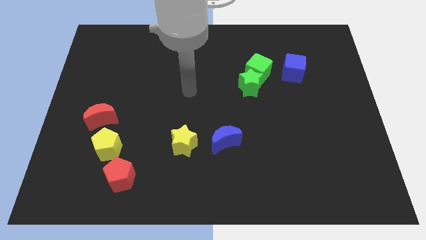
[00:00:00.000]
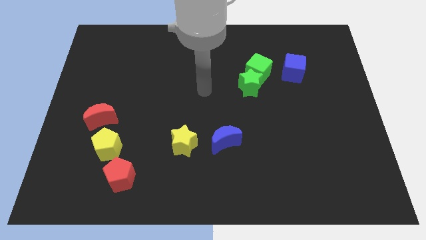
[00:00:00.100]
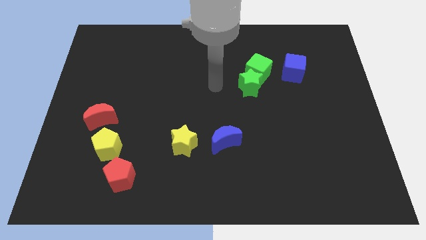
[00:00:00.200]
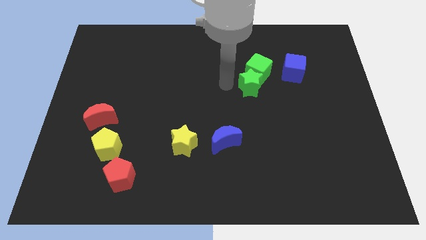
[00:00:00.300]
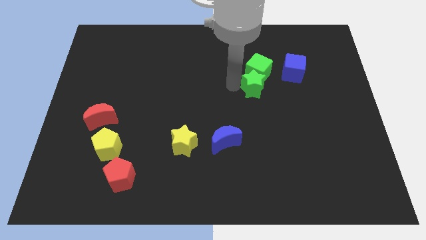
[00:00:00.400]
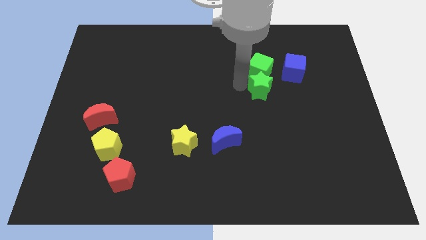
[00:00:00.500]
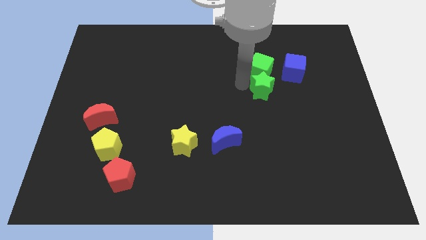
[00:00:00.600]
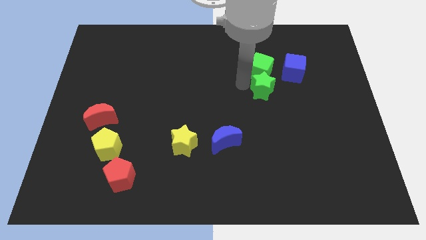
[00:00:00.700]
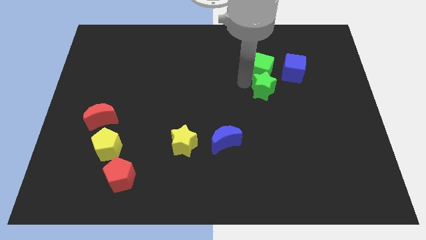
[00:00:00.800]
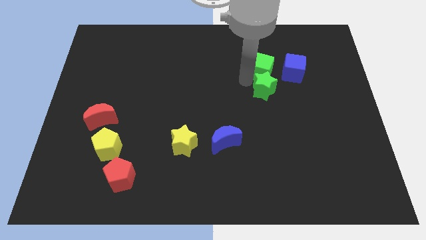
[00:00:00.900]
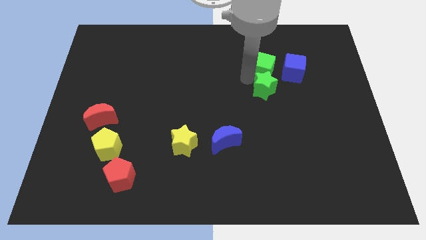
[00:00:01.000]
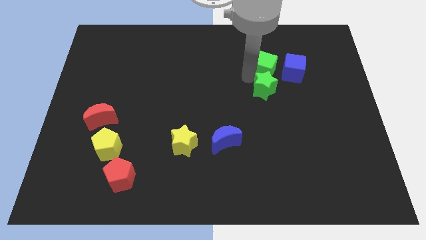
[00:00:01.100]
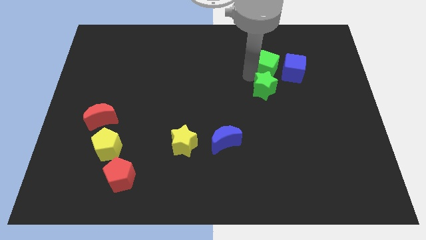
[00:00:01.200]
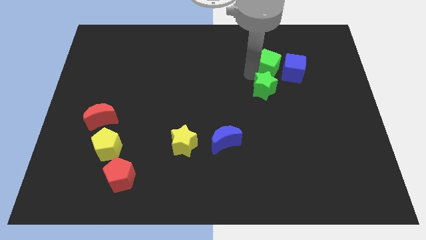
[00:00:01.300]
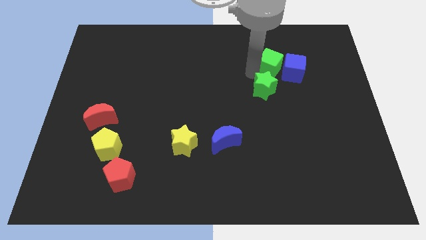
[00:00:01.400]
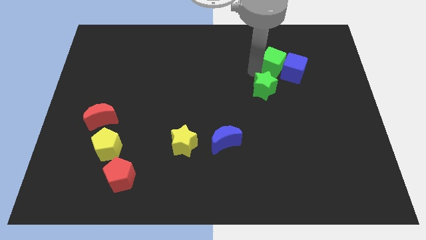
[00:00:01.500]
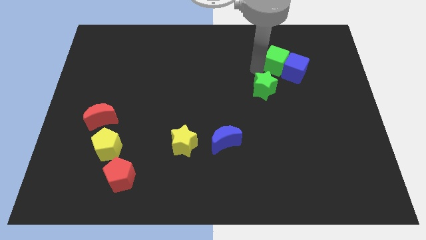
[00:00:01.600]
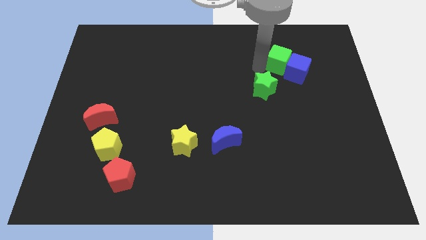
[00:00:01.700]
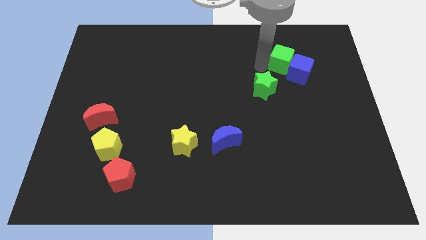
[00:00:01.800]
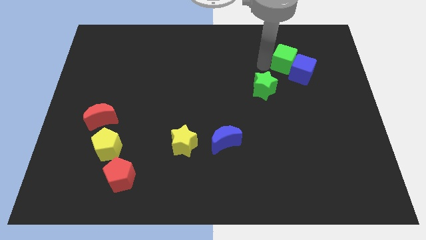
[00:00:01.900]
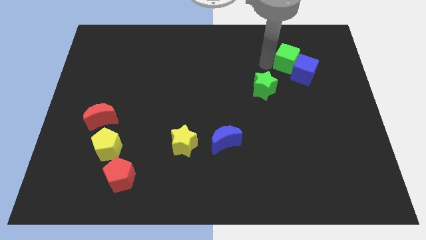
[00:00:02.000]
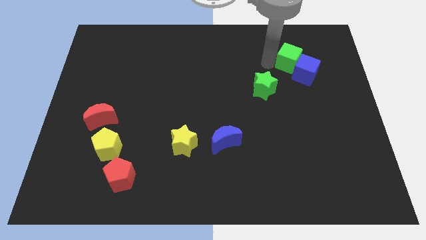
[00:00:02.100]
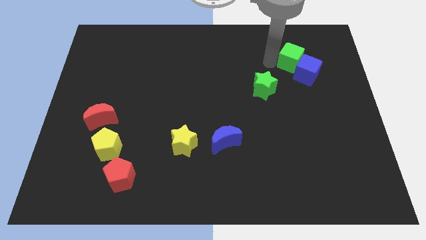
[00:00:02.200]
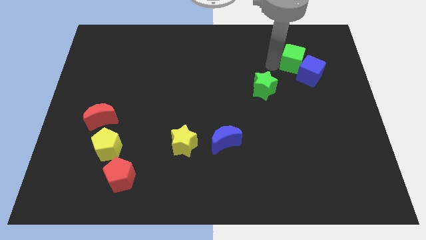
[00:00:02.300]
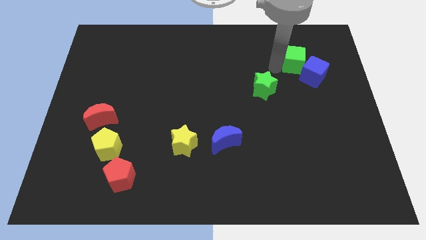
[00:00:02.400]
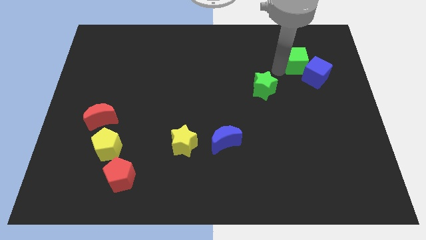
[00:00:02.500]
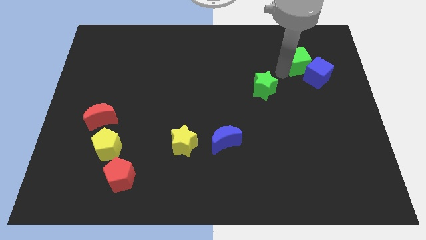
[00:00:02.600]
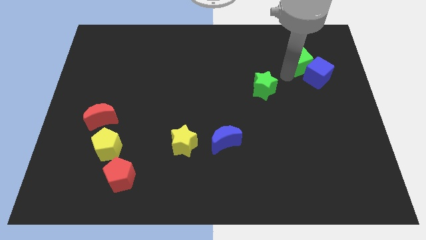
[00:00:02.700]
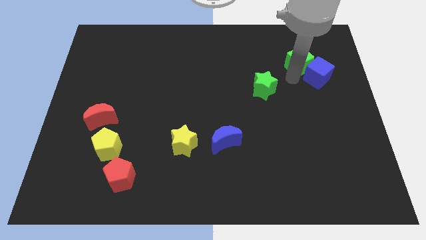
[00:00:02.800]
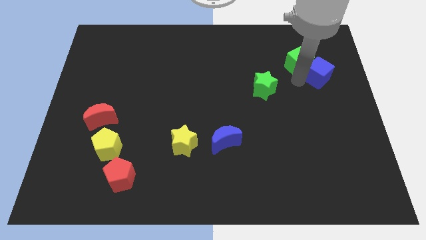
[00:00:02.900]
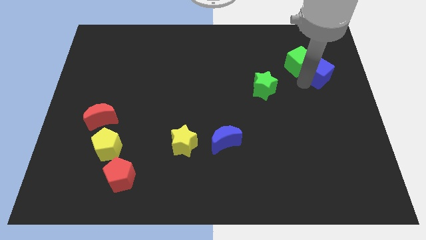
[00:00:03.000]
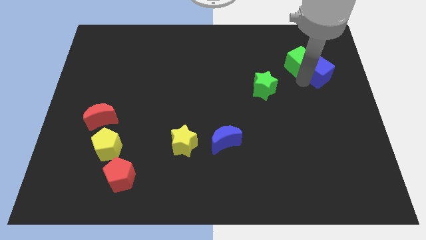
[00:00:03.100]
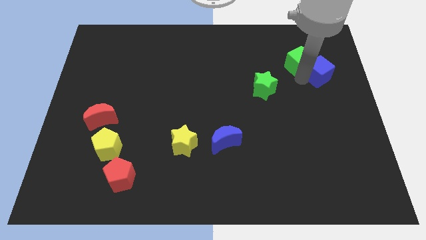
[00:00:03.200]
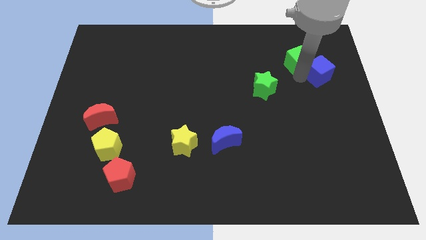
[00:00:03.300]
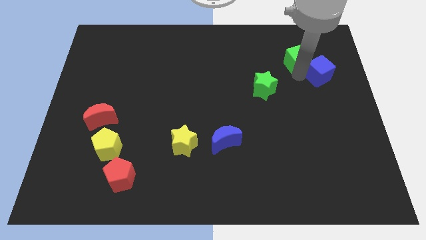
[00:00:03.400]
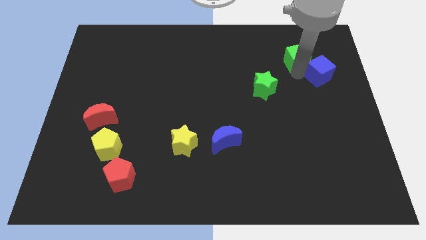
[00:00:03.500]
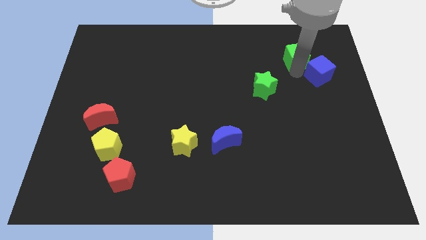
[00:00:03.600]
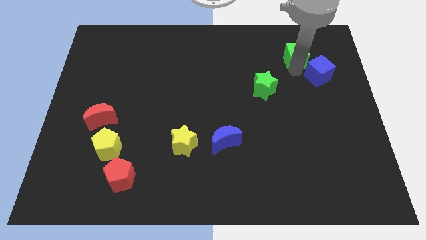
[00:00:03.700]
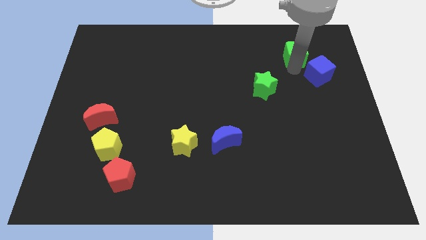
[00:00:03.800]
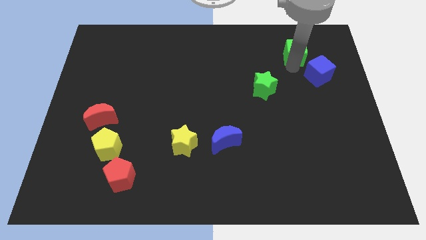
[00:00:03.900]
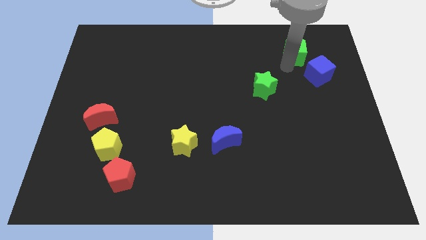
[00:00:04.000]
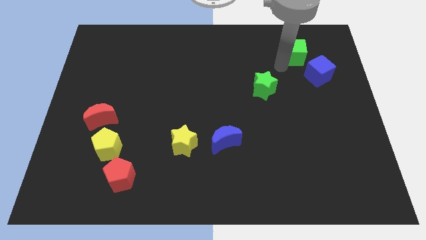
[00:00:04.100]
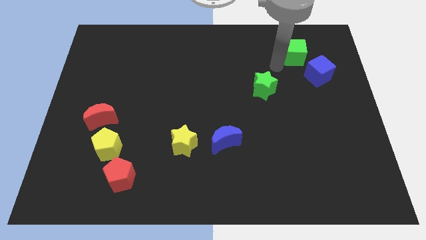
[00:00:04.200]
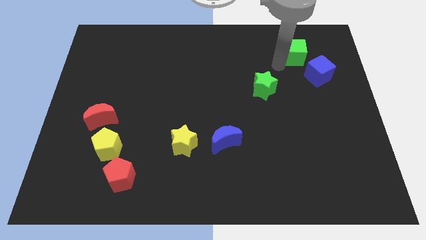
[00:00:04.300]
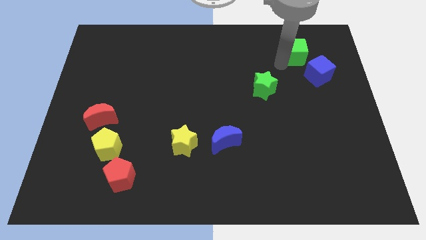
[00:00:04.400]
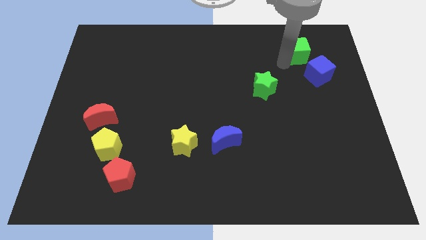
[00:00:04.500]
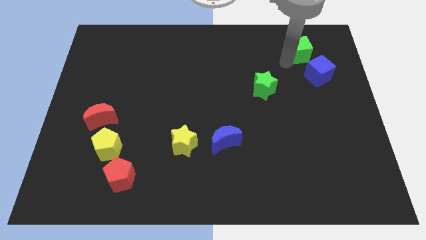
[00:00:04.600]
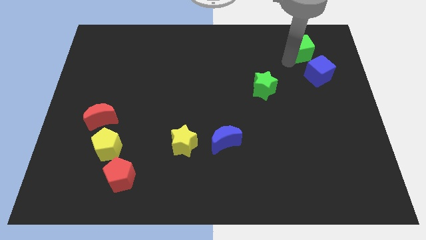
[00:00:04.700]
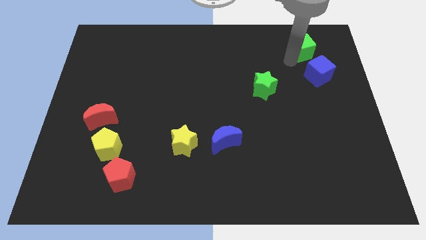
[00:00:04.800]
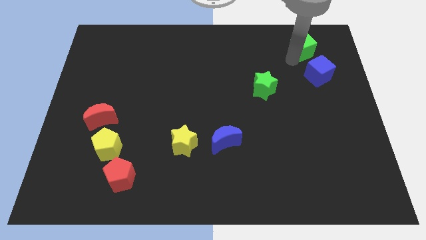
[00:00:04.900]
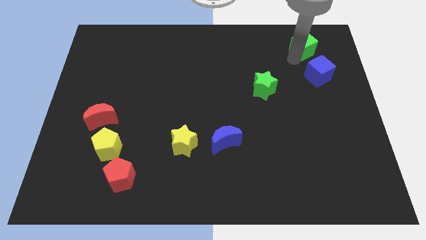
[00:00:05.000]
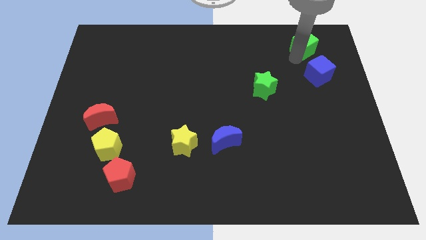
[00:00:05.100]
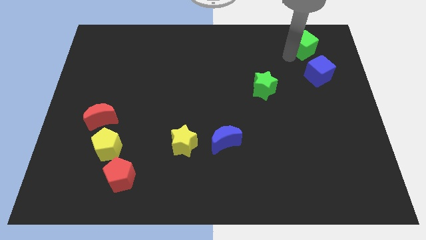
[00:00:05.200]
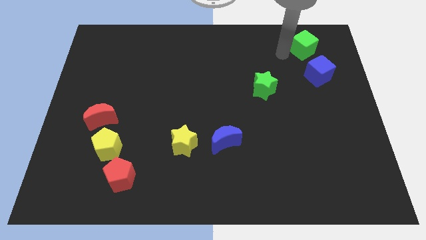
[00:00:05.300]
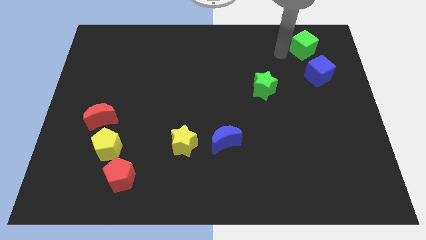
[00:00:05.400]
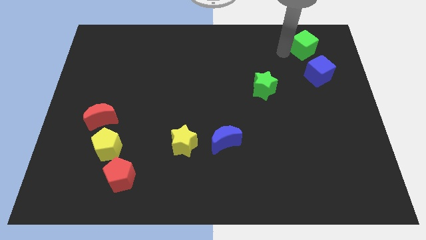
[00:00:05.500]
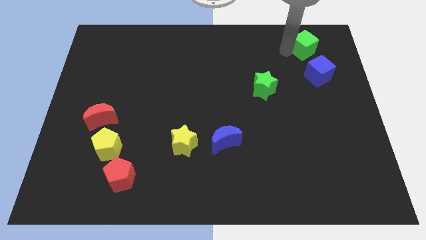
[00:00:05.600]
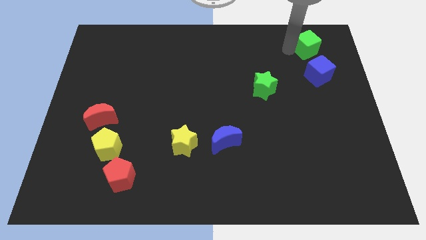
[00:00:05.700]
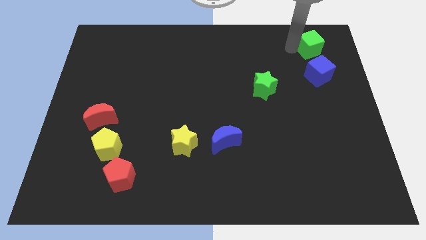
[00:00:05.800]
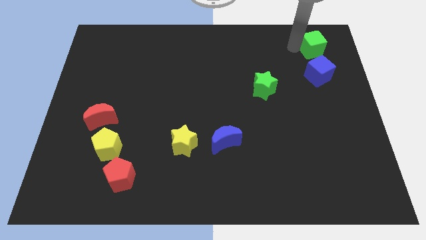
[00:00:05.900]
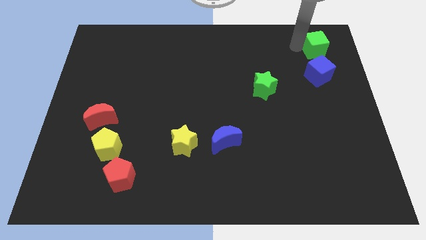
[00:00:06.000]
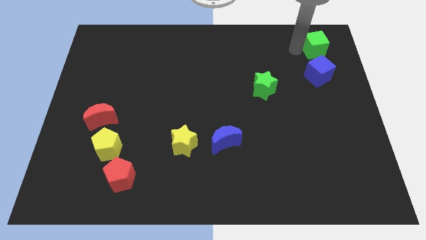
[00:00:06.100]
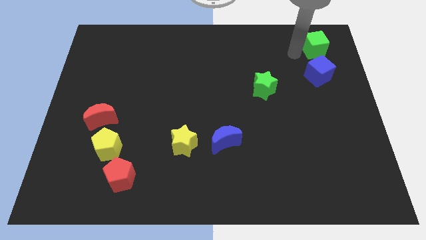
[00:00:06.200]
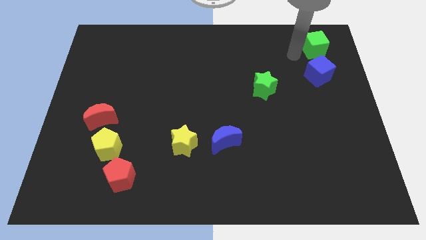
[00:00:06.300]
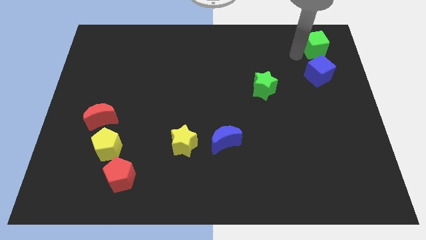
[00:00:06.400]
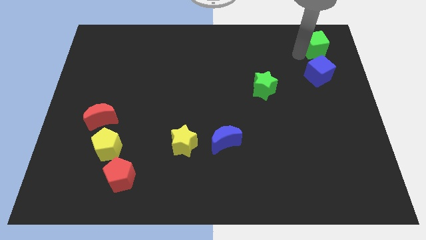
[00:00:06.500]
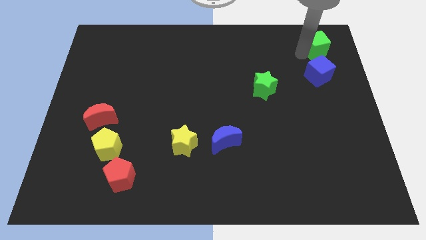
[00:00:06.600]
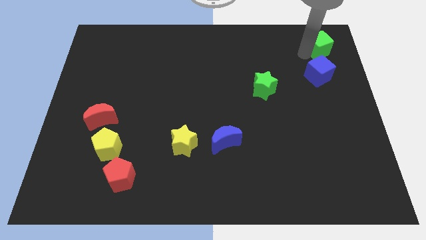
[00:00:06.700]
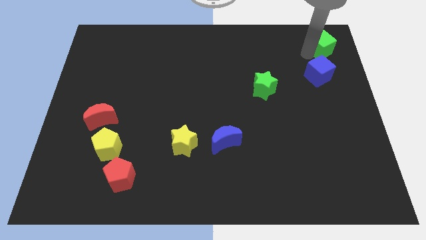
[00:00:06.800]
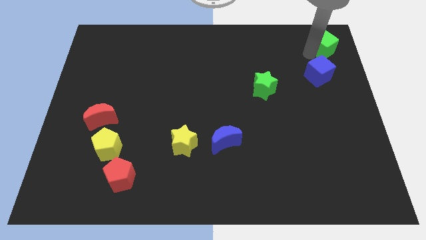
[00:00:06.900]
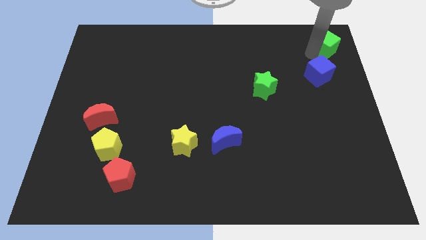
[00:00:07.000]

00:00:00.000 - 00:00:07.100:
push the green cube to the top right of the board

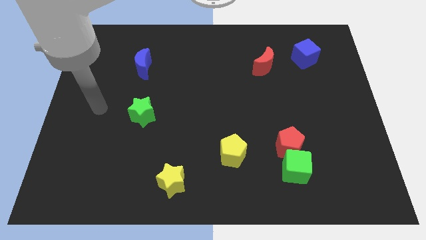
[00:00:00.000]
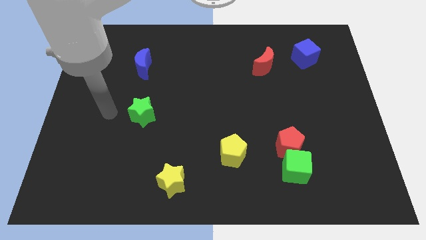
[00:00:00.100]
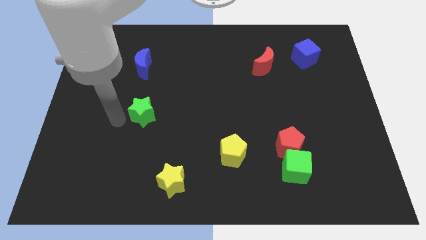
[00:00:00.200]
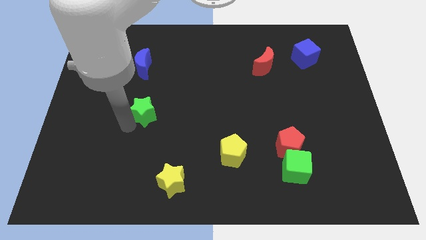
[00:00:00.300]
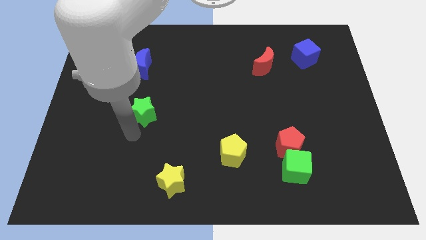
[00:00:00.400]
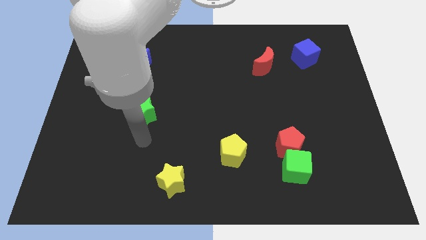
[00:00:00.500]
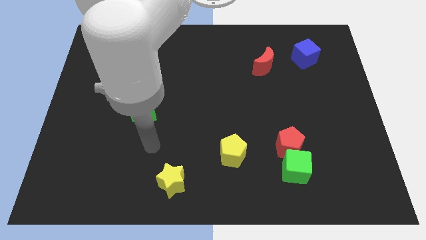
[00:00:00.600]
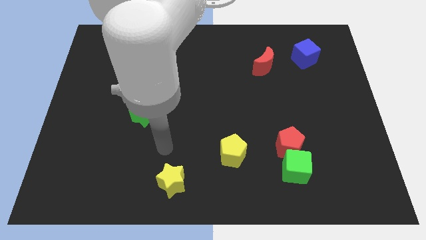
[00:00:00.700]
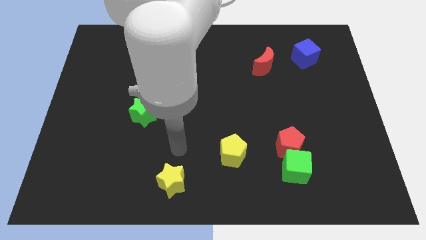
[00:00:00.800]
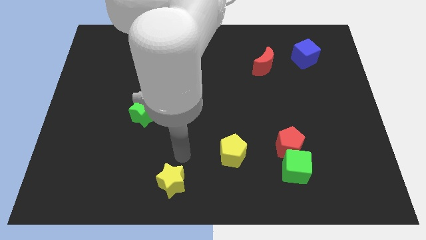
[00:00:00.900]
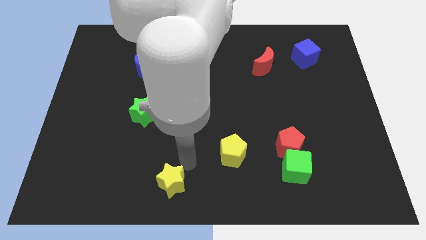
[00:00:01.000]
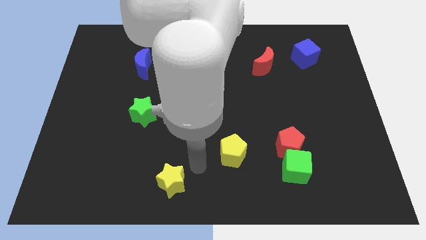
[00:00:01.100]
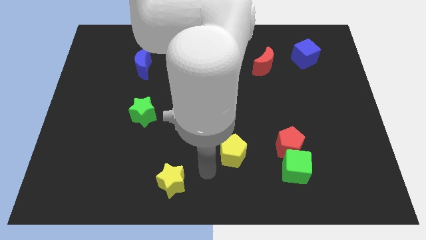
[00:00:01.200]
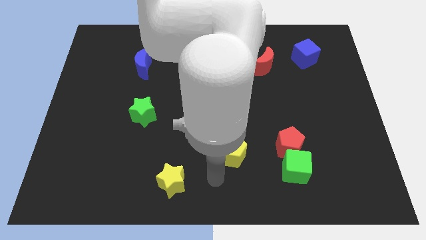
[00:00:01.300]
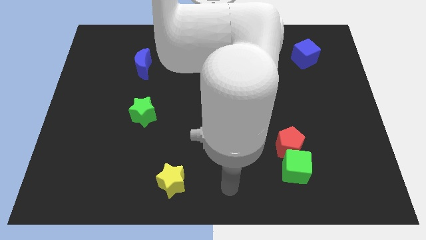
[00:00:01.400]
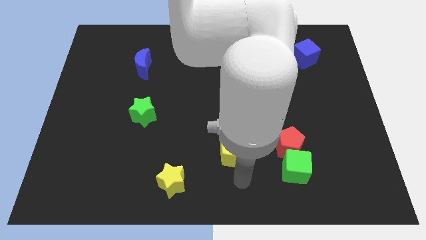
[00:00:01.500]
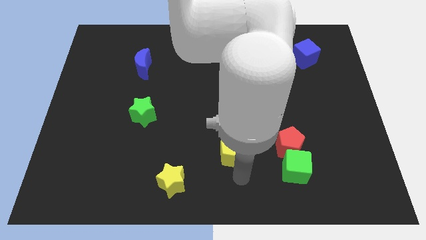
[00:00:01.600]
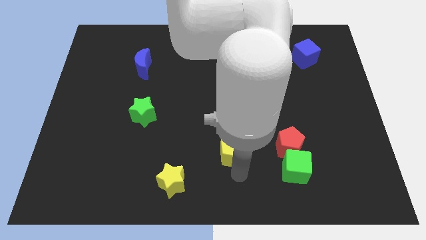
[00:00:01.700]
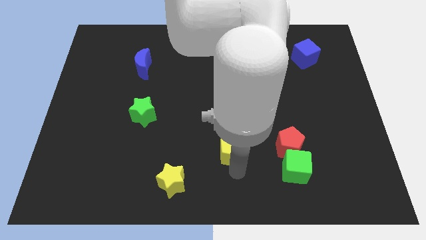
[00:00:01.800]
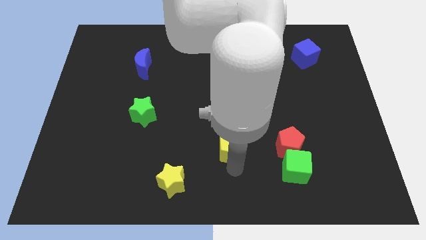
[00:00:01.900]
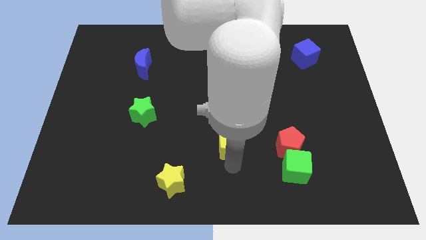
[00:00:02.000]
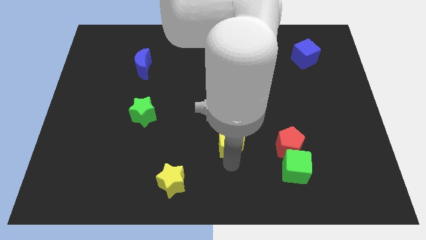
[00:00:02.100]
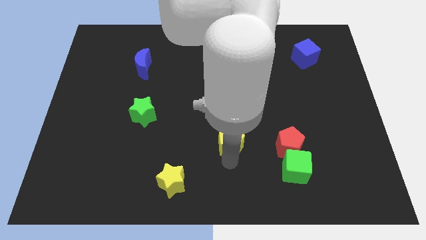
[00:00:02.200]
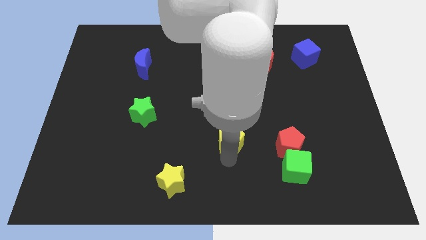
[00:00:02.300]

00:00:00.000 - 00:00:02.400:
push the yellow pentagon to the center
